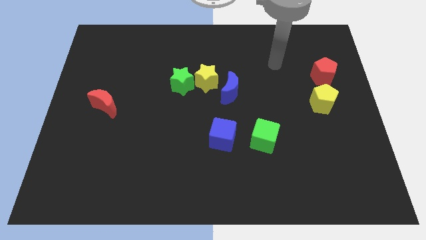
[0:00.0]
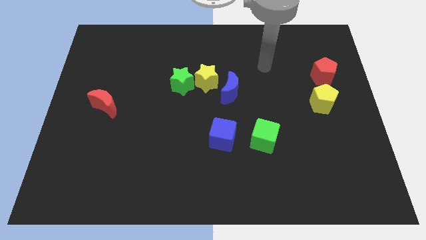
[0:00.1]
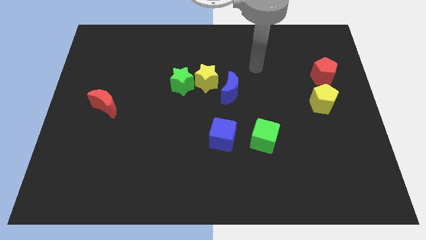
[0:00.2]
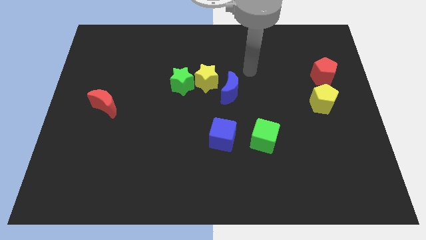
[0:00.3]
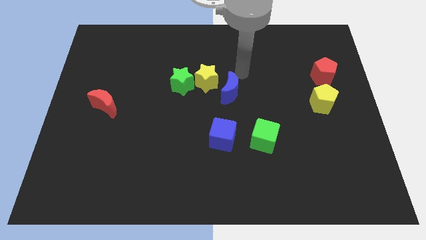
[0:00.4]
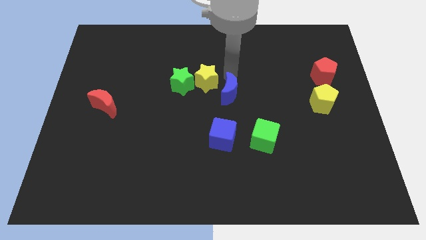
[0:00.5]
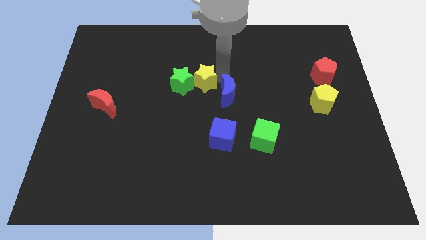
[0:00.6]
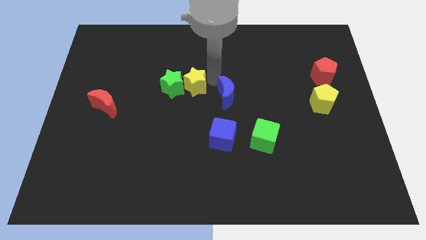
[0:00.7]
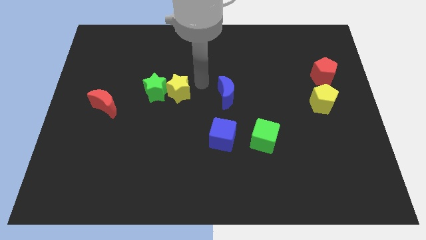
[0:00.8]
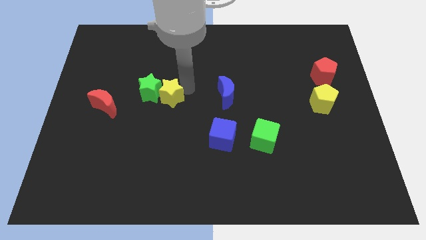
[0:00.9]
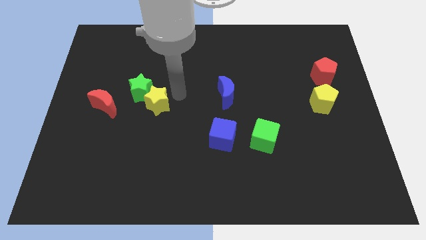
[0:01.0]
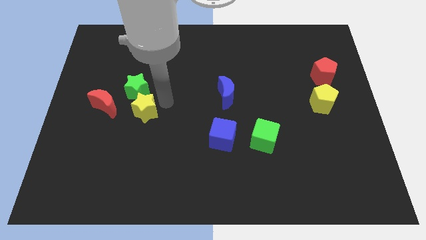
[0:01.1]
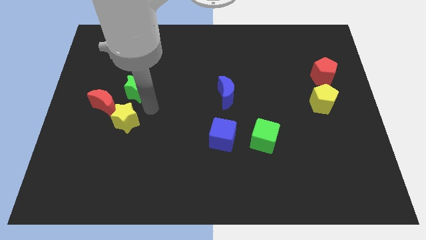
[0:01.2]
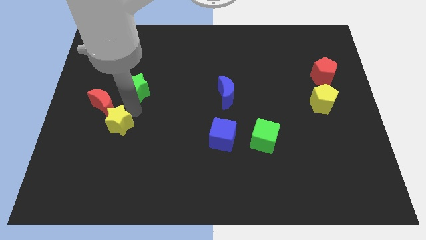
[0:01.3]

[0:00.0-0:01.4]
separate the green star from the yellow star

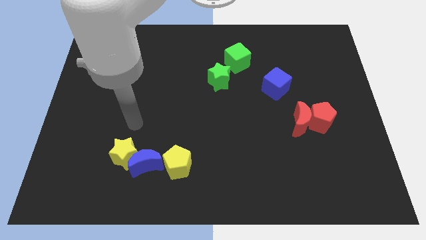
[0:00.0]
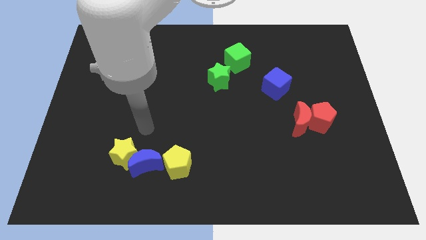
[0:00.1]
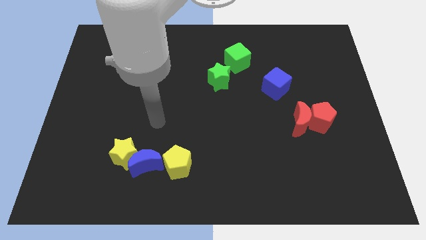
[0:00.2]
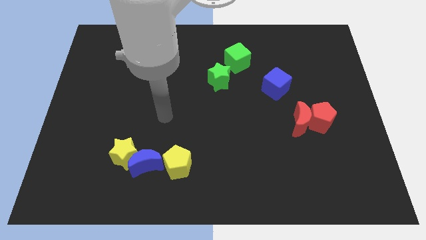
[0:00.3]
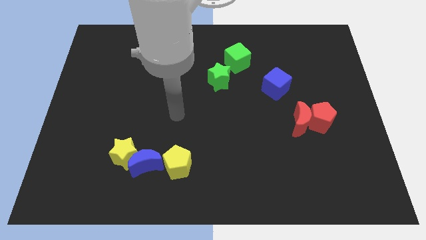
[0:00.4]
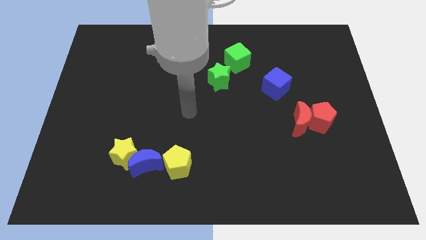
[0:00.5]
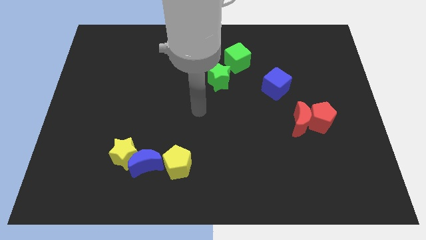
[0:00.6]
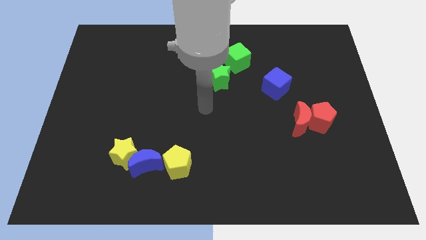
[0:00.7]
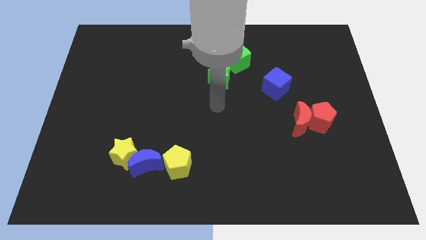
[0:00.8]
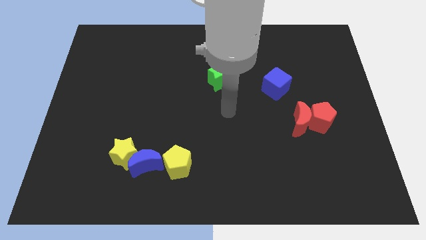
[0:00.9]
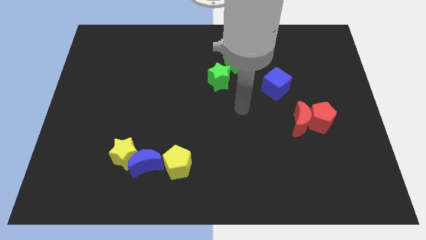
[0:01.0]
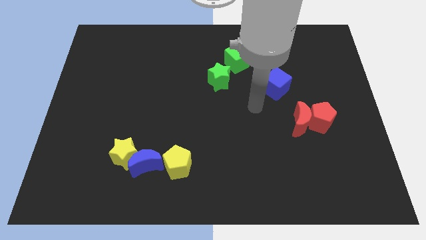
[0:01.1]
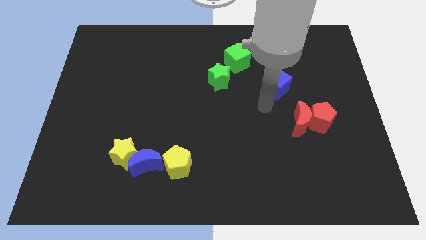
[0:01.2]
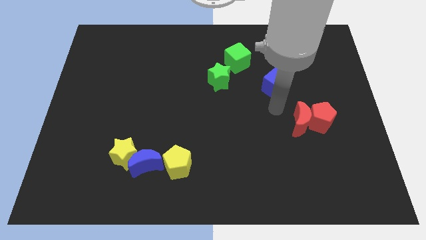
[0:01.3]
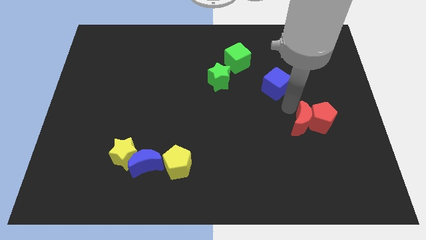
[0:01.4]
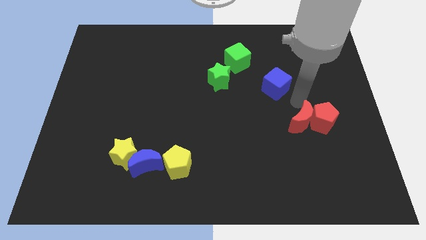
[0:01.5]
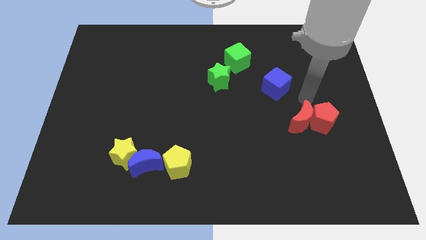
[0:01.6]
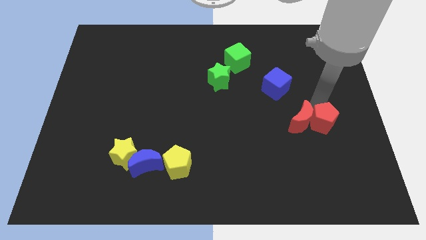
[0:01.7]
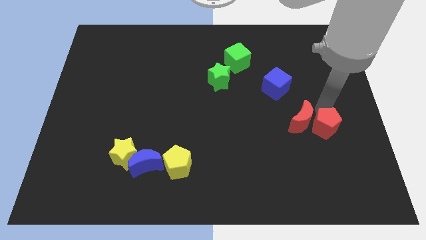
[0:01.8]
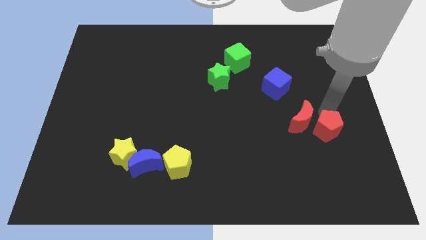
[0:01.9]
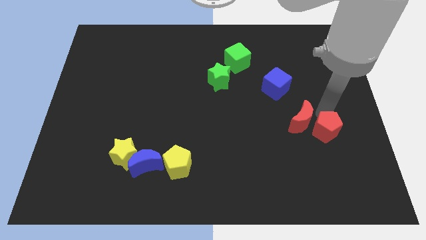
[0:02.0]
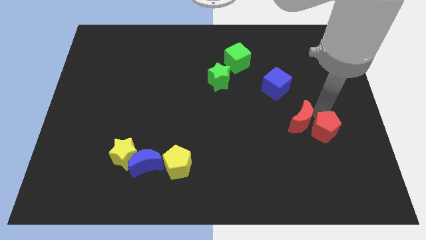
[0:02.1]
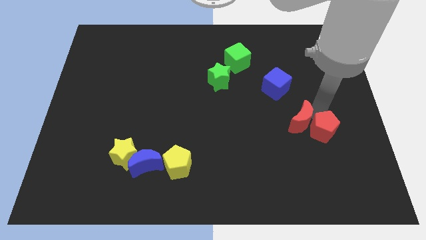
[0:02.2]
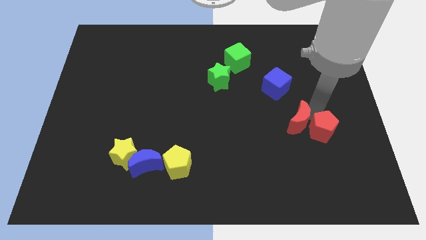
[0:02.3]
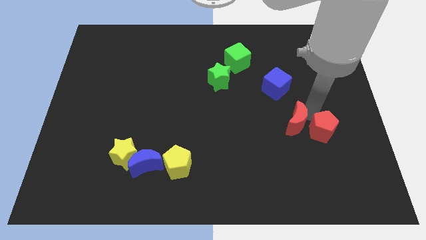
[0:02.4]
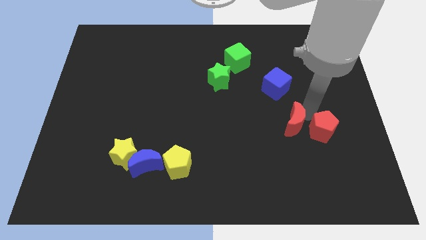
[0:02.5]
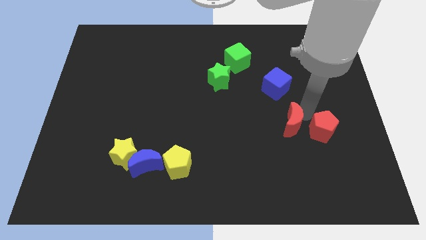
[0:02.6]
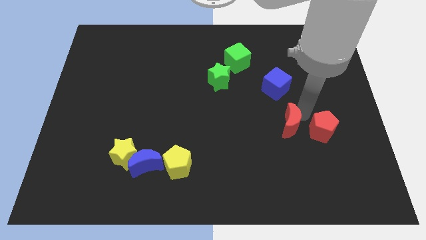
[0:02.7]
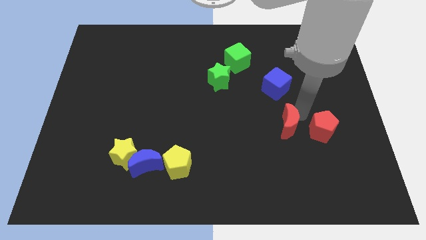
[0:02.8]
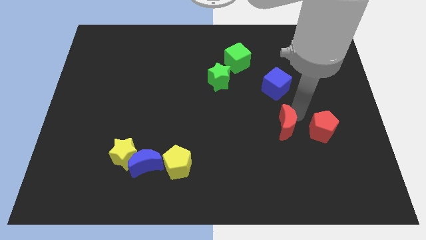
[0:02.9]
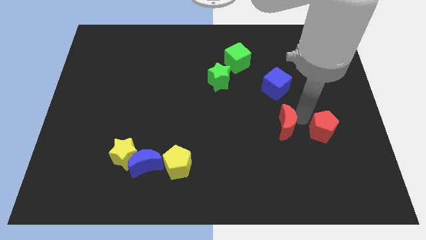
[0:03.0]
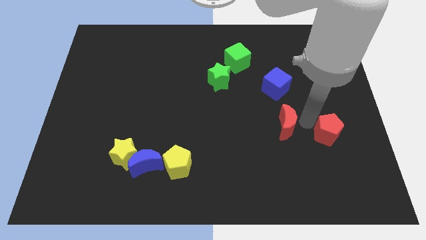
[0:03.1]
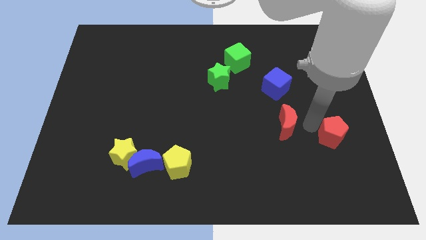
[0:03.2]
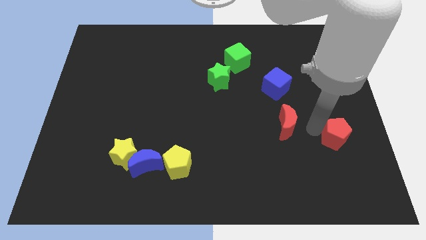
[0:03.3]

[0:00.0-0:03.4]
move the red moon away from the red pentagon

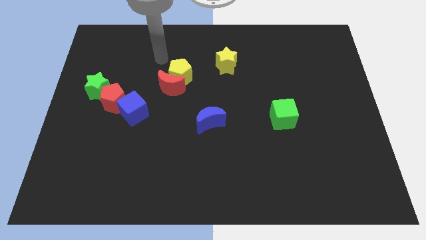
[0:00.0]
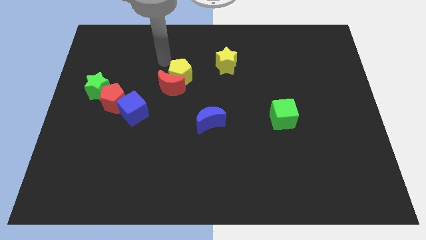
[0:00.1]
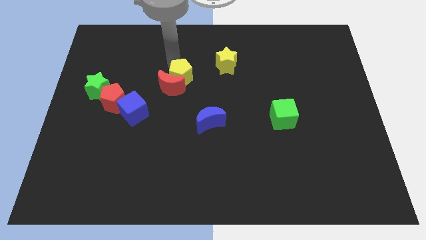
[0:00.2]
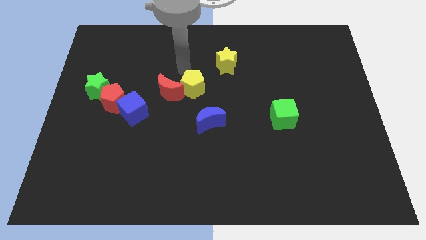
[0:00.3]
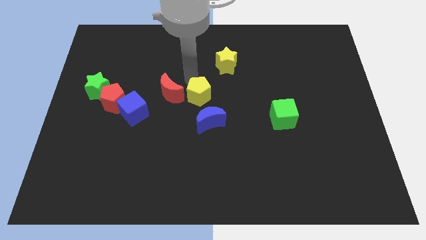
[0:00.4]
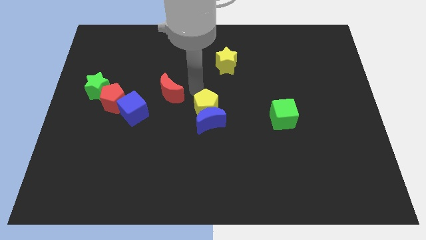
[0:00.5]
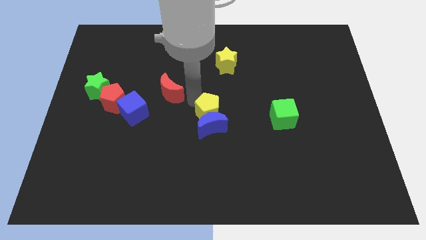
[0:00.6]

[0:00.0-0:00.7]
separate the red moon from the yellow pentagon

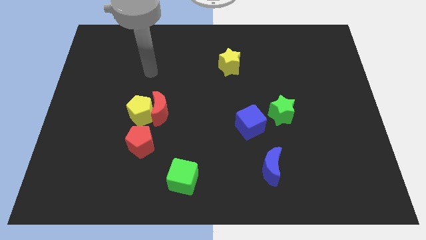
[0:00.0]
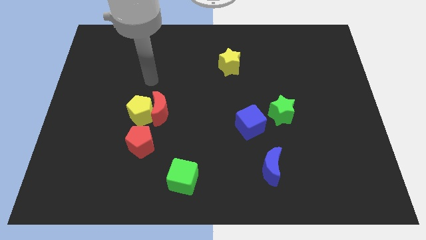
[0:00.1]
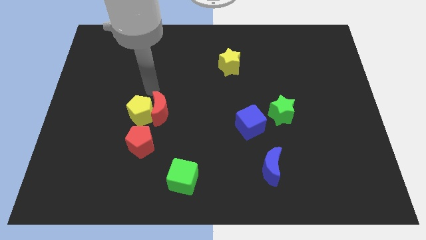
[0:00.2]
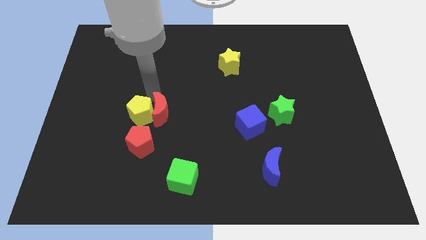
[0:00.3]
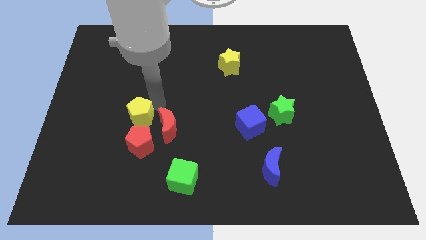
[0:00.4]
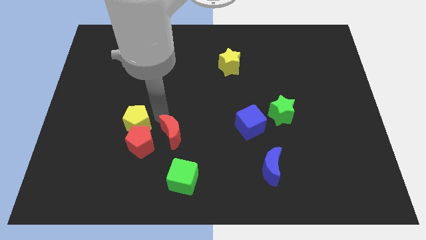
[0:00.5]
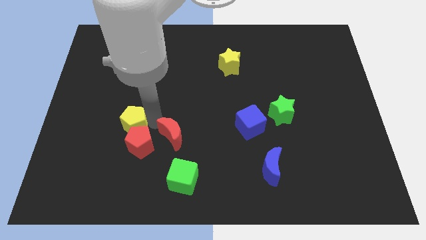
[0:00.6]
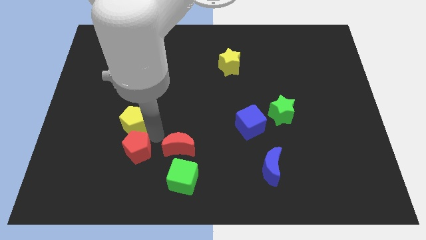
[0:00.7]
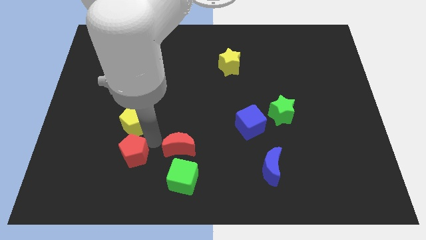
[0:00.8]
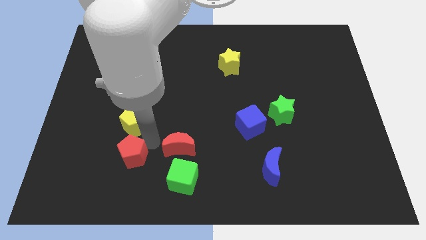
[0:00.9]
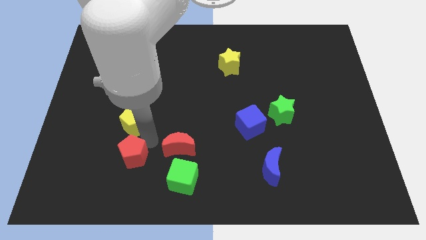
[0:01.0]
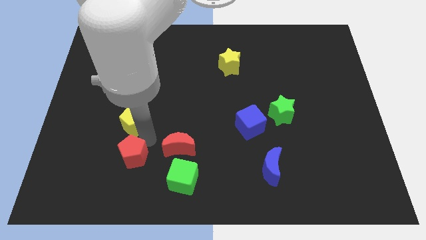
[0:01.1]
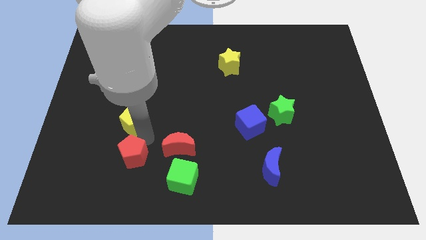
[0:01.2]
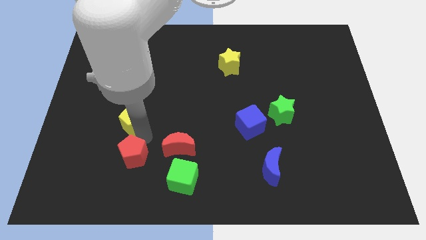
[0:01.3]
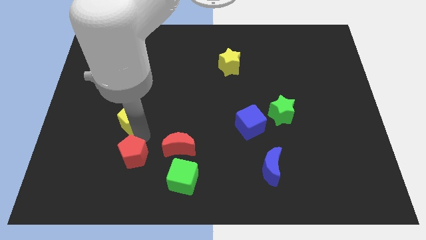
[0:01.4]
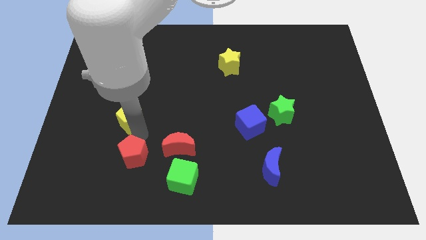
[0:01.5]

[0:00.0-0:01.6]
separate the yellow pentagon from the red moon and red pentagon

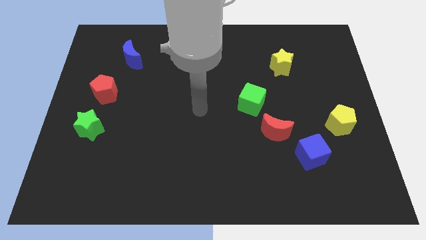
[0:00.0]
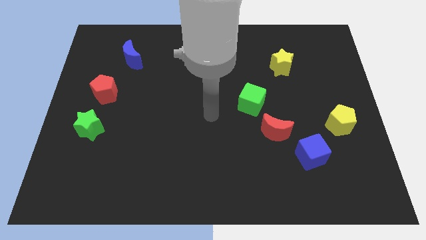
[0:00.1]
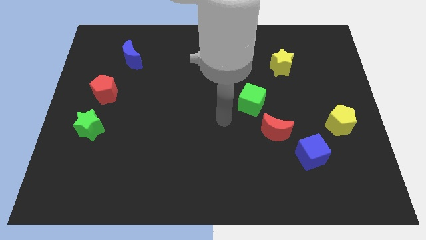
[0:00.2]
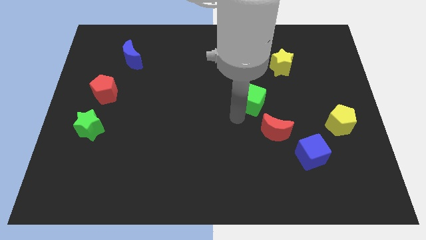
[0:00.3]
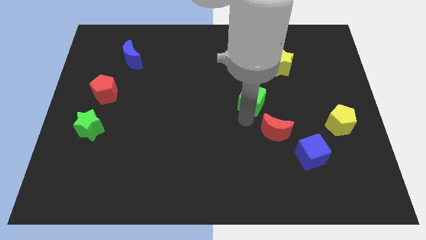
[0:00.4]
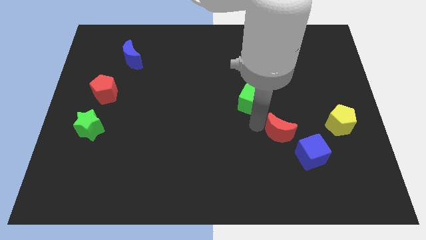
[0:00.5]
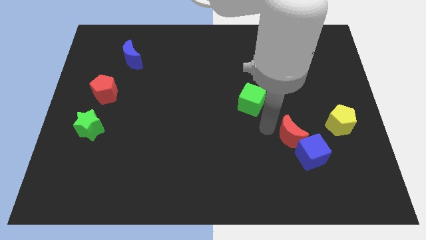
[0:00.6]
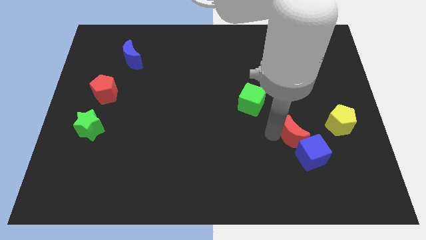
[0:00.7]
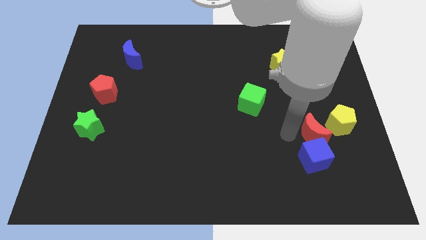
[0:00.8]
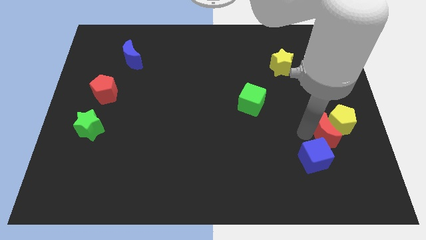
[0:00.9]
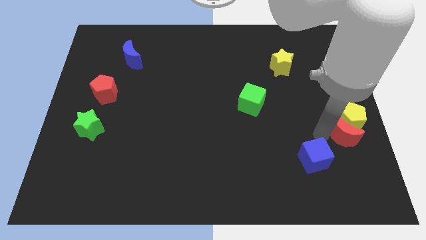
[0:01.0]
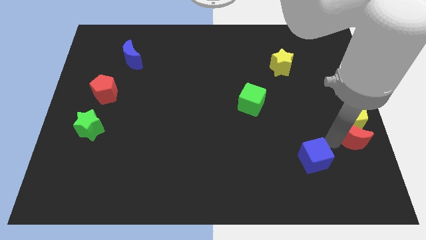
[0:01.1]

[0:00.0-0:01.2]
move the blue cube away from the red moon

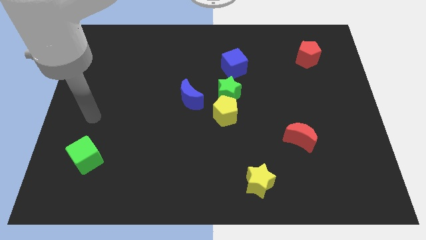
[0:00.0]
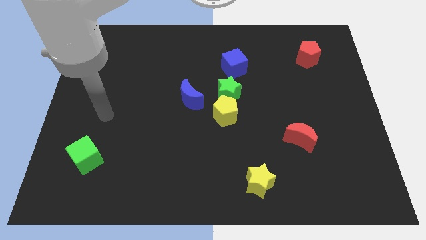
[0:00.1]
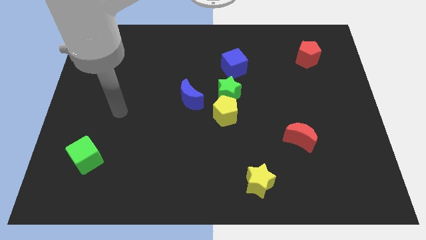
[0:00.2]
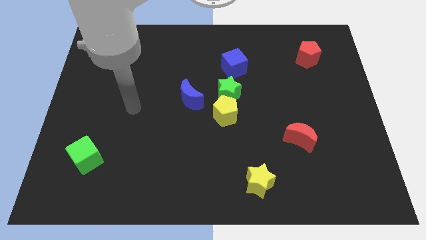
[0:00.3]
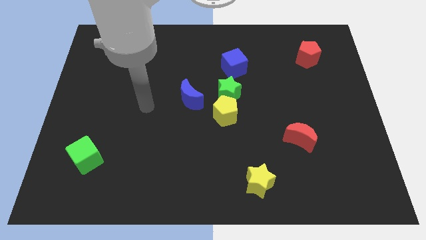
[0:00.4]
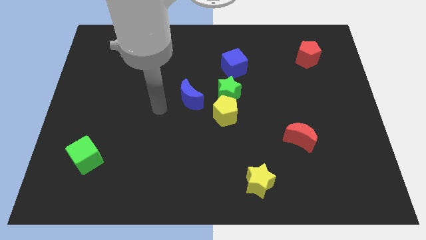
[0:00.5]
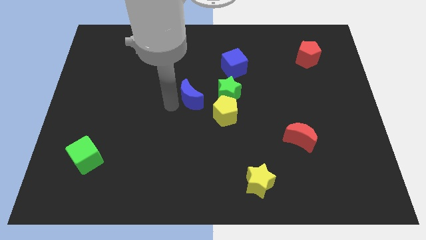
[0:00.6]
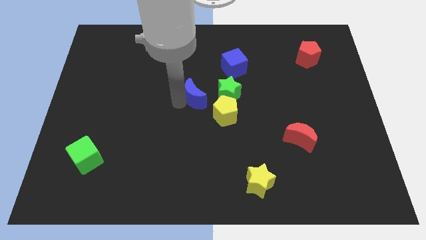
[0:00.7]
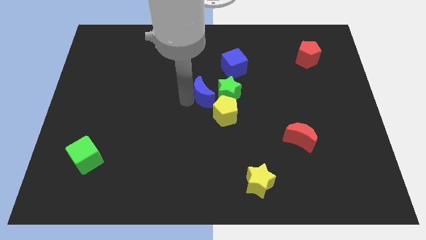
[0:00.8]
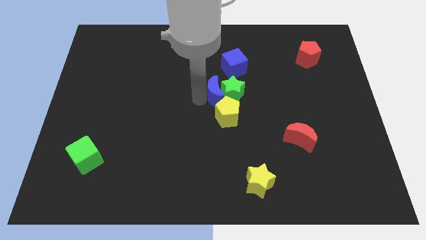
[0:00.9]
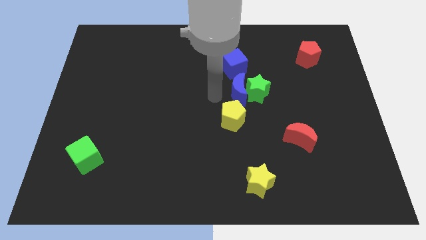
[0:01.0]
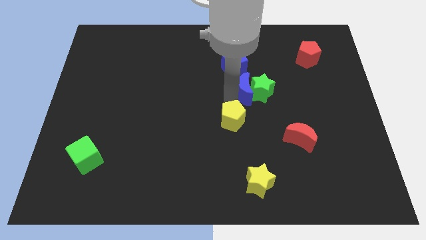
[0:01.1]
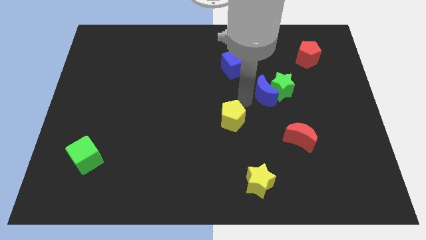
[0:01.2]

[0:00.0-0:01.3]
separate the yellow pentagon from the green star and blue moon
